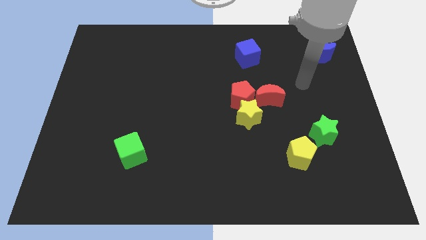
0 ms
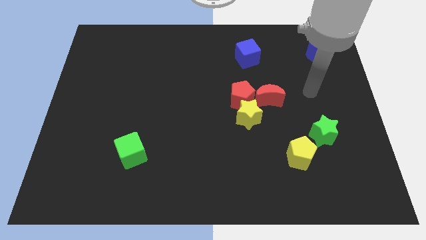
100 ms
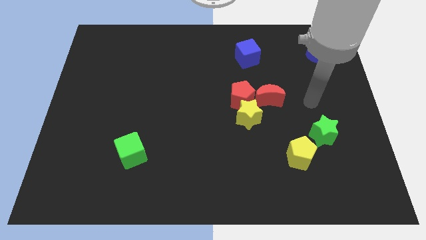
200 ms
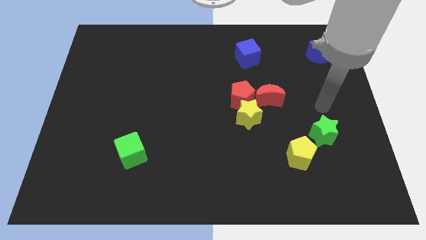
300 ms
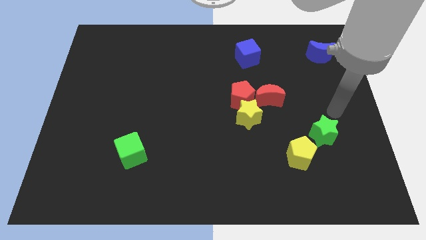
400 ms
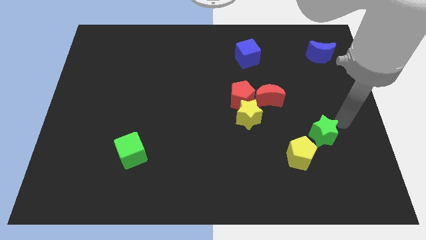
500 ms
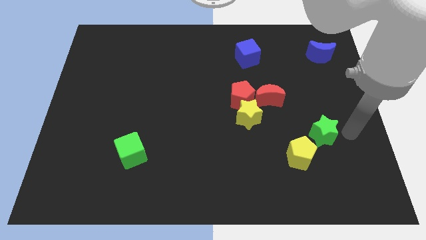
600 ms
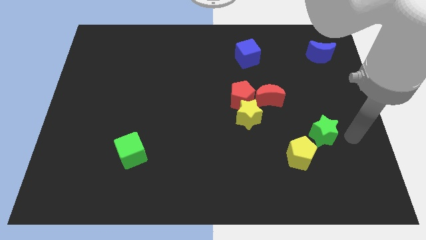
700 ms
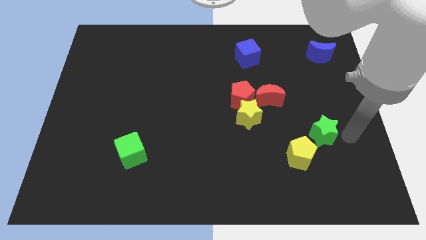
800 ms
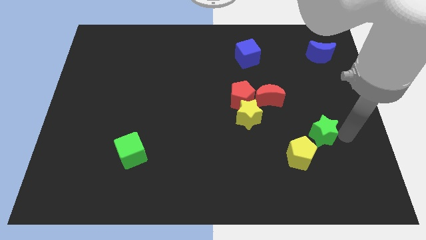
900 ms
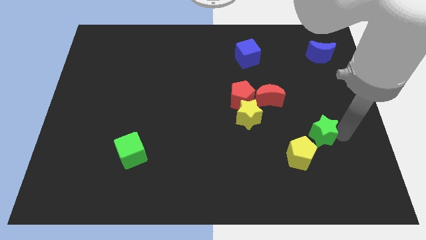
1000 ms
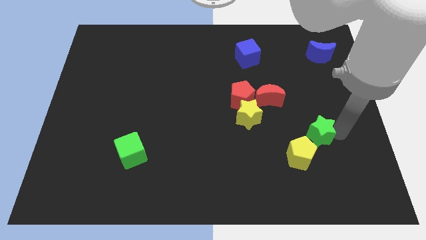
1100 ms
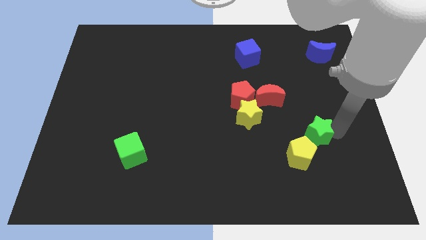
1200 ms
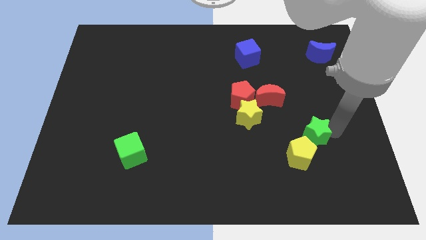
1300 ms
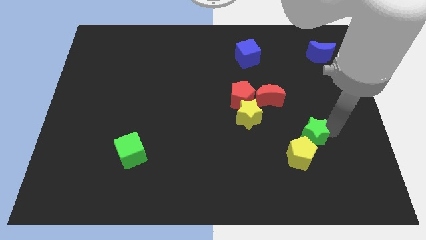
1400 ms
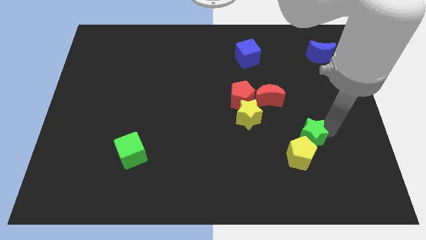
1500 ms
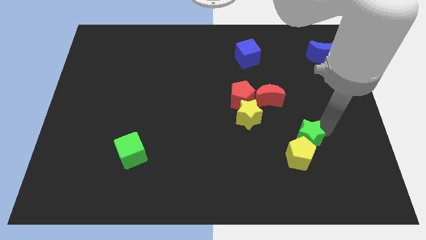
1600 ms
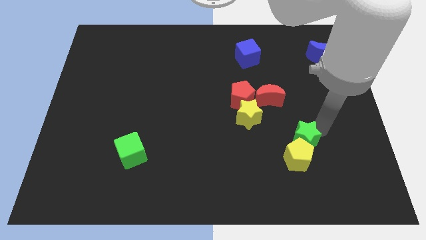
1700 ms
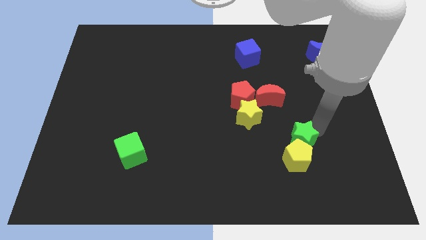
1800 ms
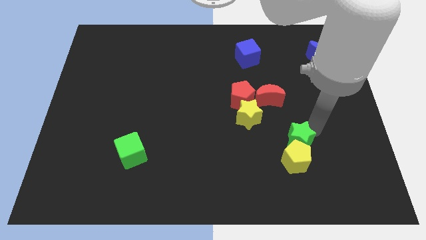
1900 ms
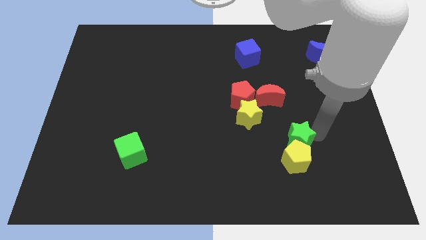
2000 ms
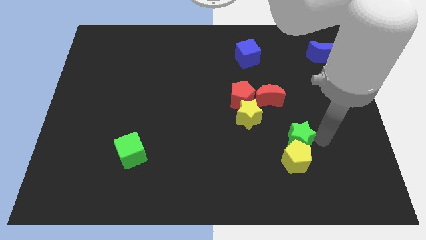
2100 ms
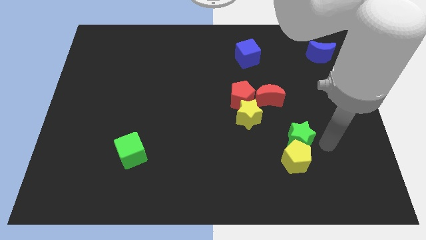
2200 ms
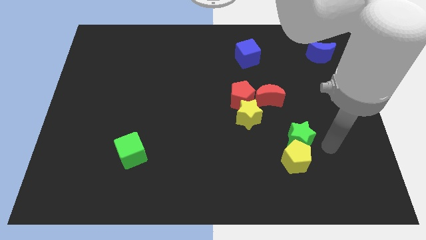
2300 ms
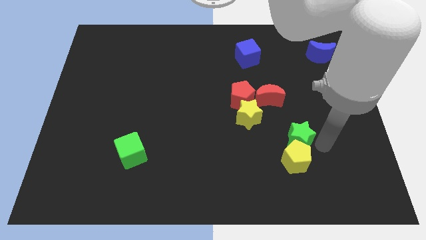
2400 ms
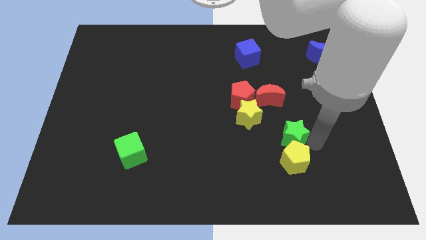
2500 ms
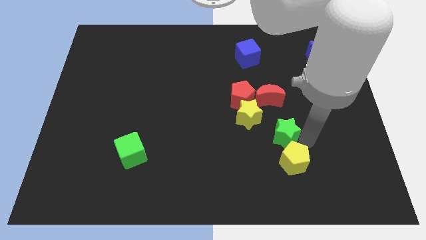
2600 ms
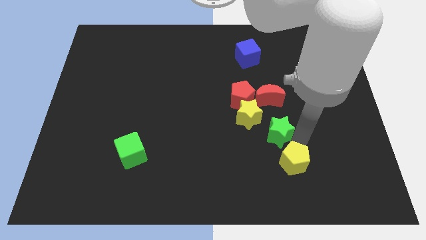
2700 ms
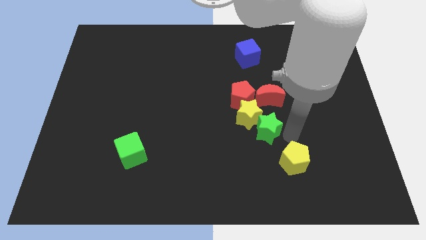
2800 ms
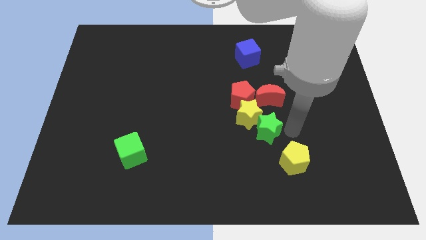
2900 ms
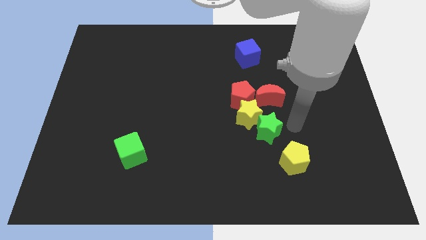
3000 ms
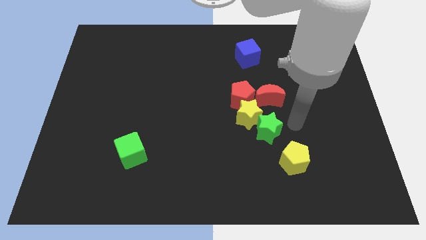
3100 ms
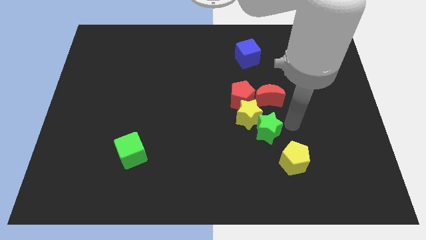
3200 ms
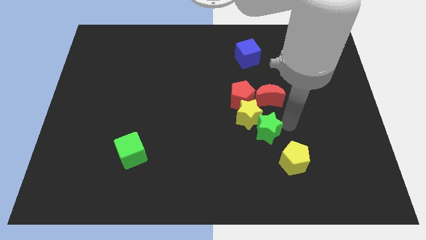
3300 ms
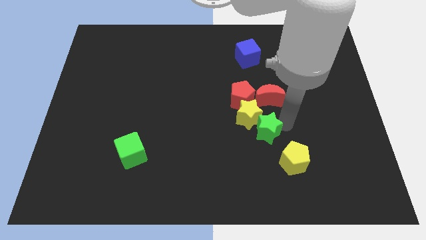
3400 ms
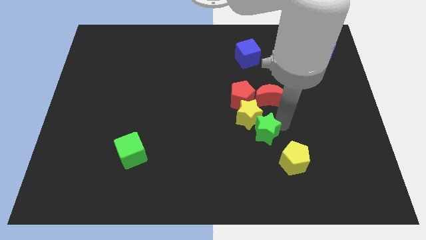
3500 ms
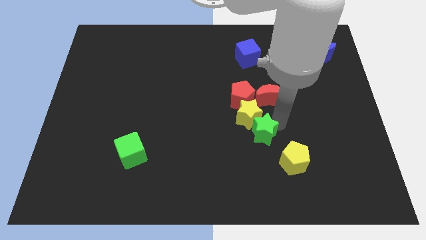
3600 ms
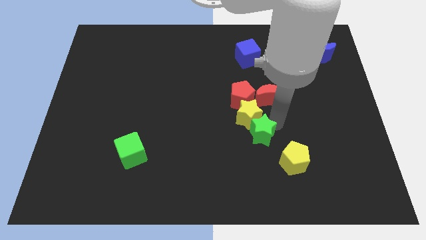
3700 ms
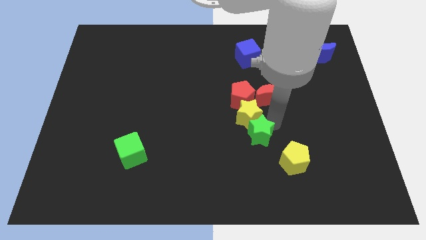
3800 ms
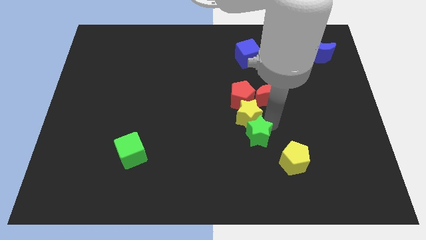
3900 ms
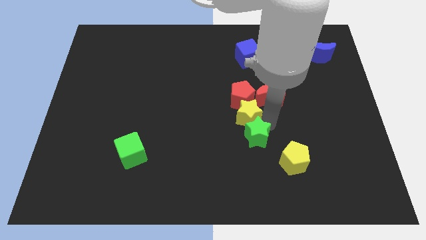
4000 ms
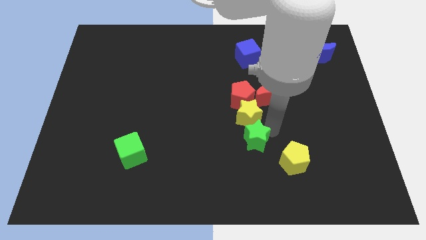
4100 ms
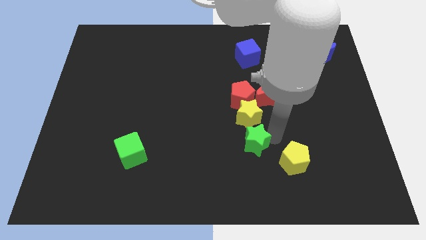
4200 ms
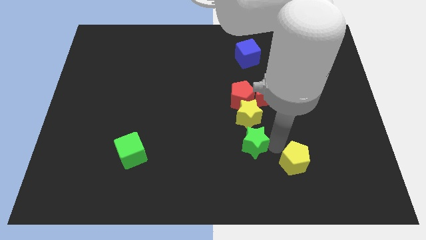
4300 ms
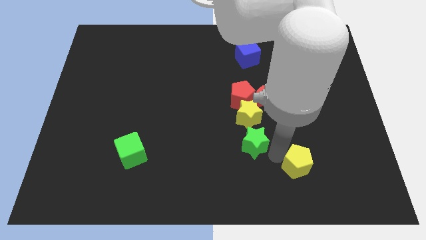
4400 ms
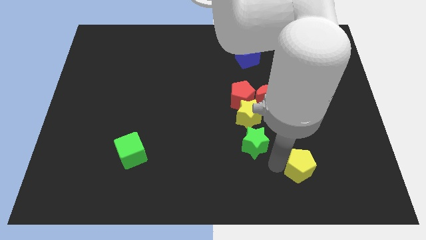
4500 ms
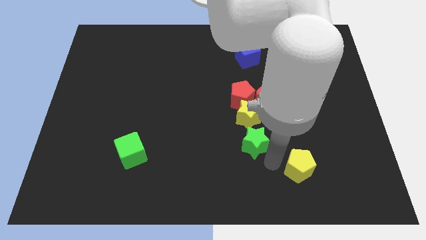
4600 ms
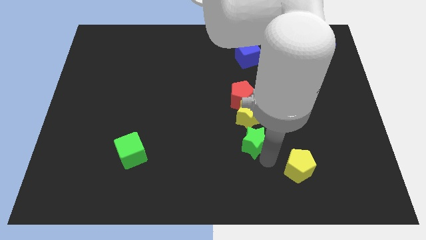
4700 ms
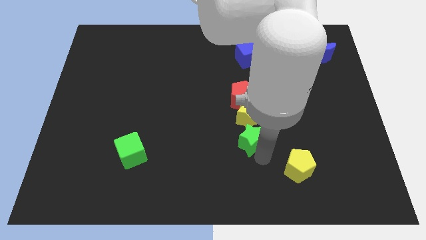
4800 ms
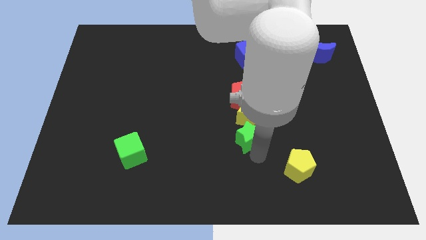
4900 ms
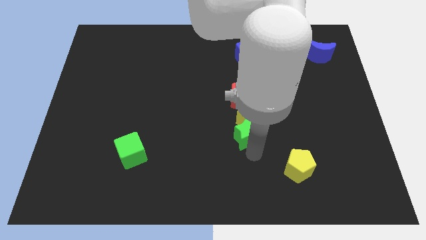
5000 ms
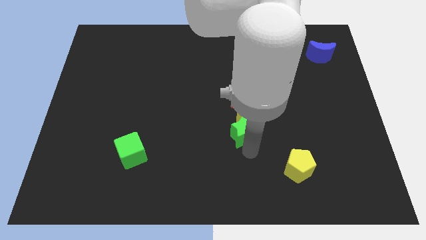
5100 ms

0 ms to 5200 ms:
slide the green star to the middle of the board

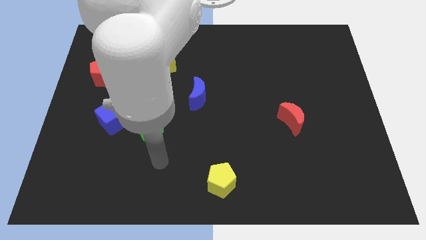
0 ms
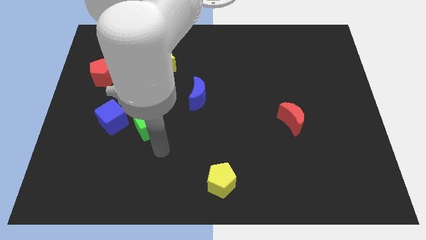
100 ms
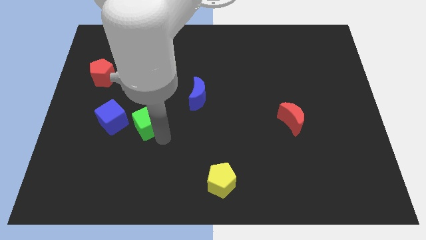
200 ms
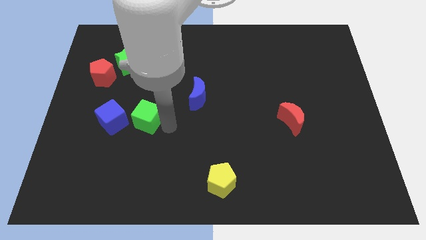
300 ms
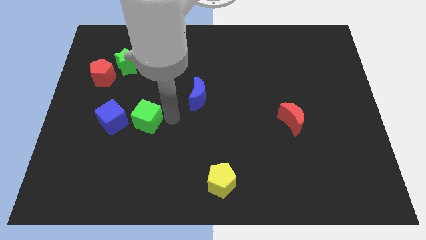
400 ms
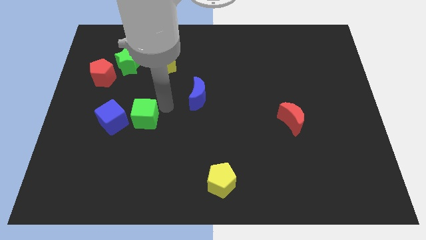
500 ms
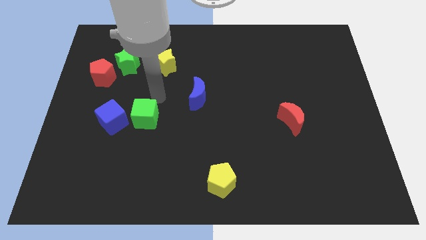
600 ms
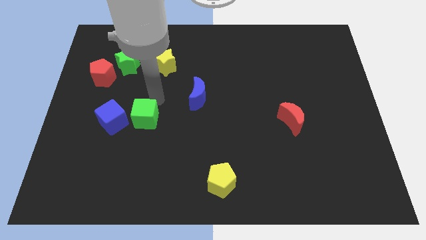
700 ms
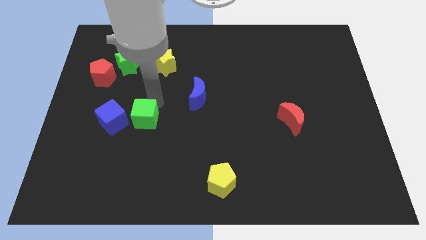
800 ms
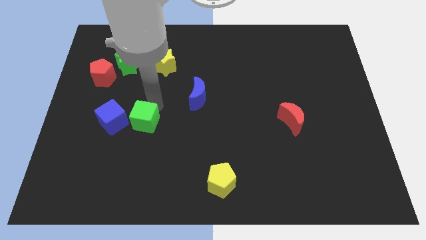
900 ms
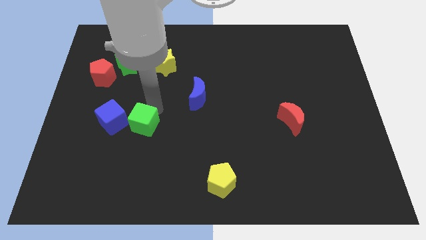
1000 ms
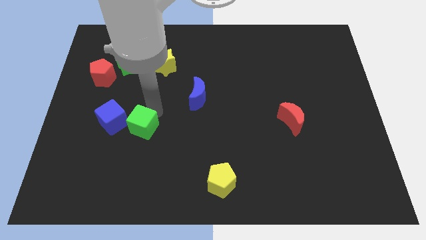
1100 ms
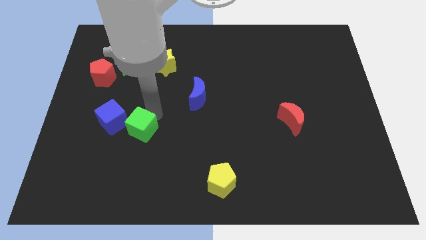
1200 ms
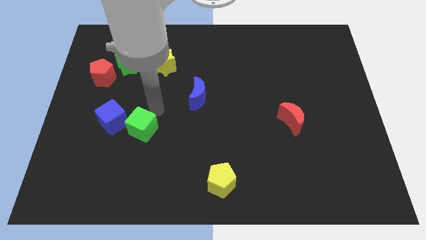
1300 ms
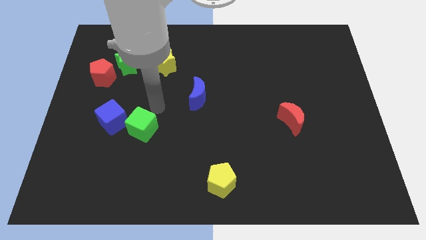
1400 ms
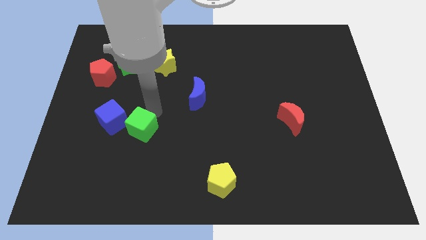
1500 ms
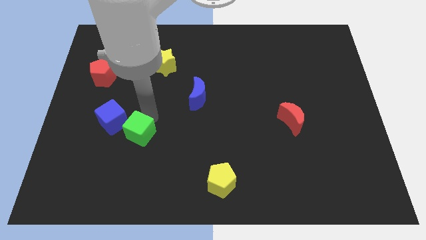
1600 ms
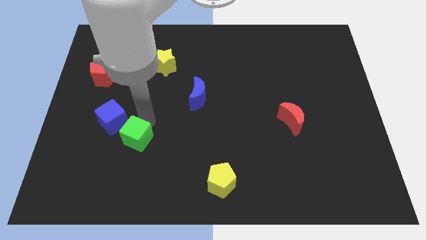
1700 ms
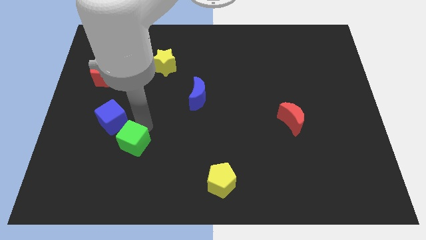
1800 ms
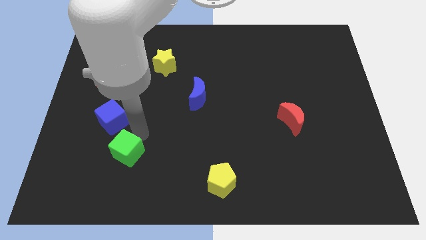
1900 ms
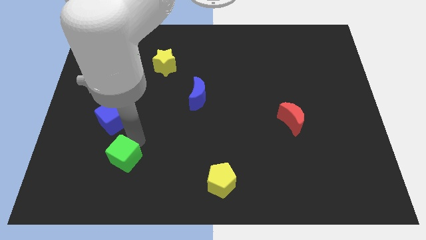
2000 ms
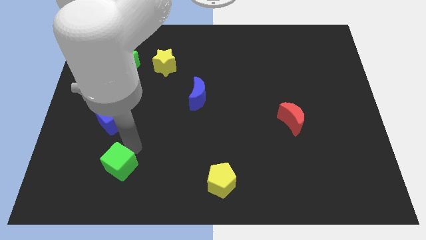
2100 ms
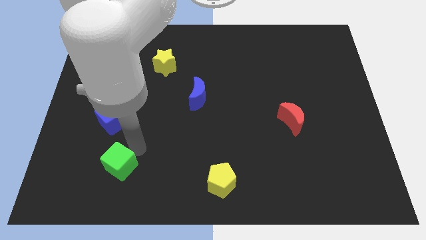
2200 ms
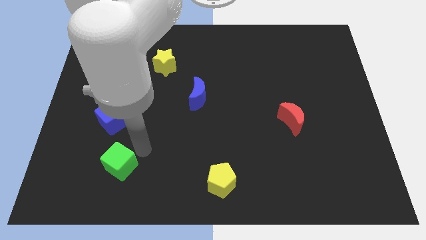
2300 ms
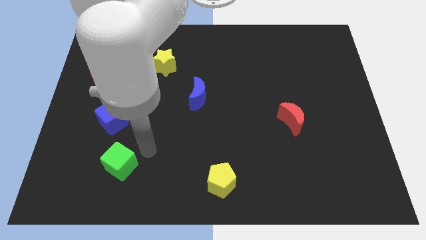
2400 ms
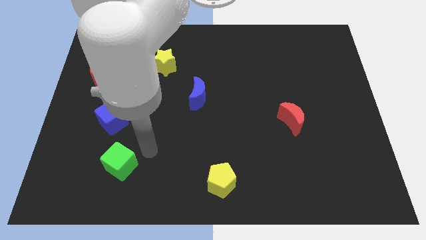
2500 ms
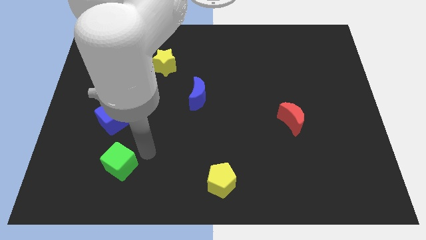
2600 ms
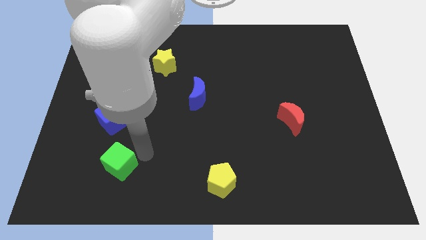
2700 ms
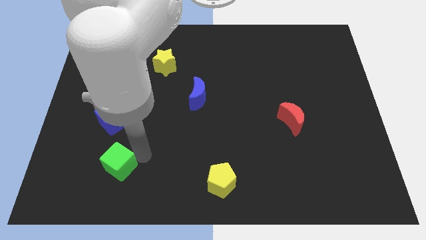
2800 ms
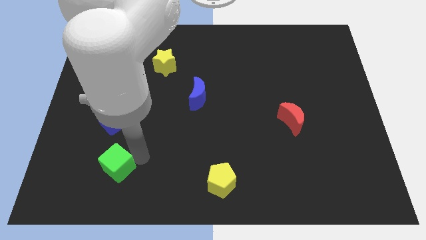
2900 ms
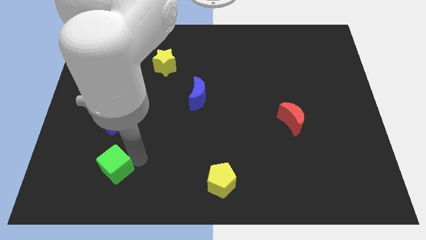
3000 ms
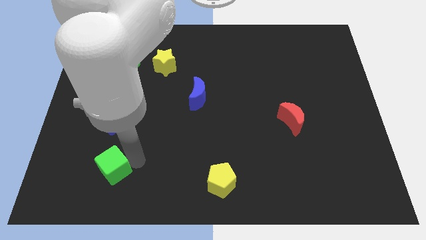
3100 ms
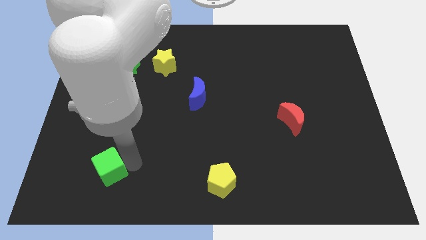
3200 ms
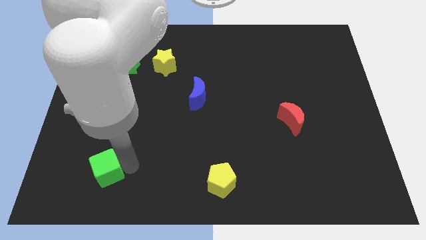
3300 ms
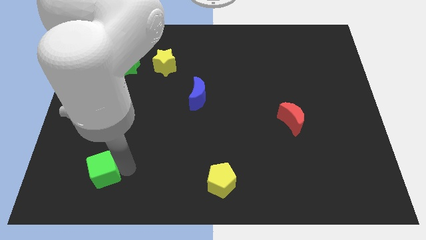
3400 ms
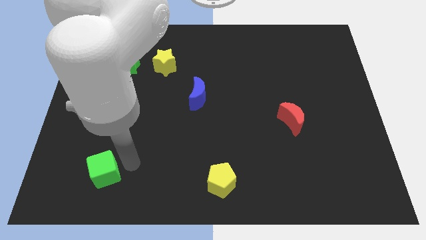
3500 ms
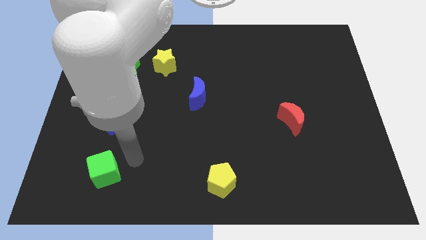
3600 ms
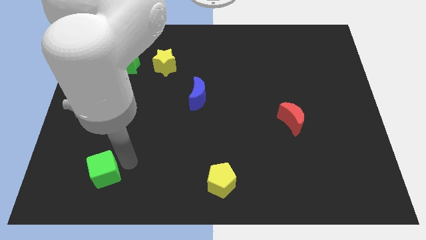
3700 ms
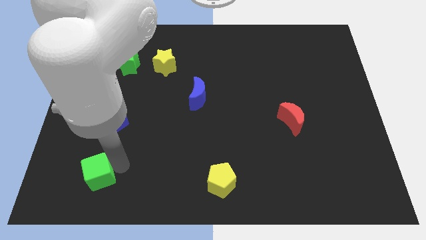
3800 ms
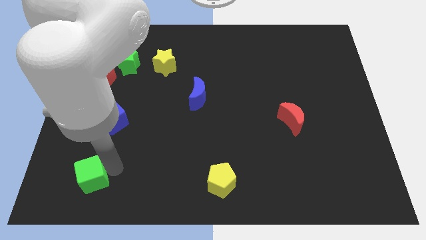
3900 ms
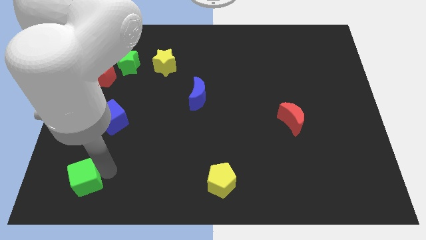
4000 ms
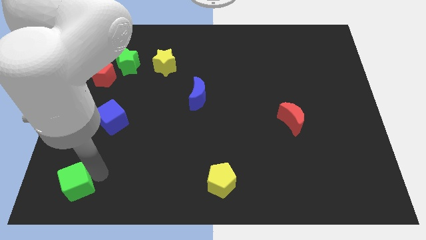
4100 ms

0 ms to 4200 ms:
move the green cube to the bottom left of the board
